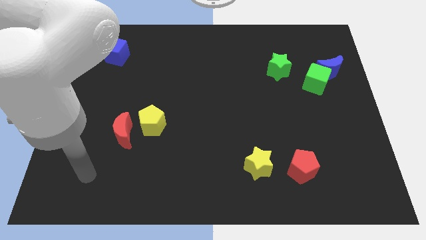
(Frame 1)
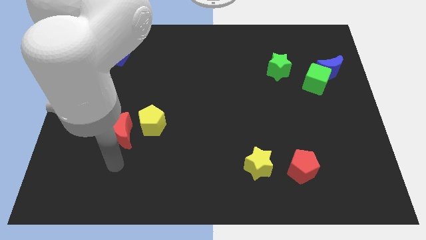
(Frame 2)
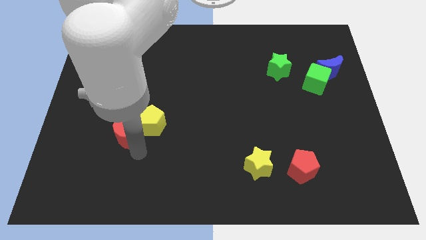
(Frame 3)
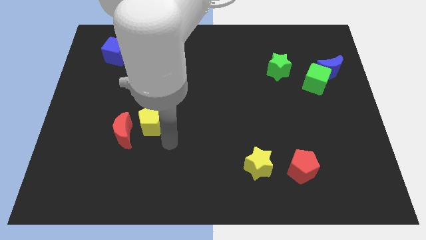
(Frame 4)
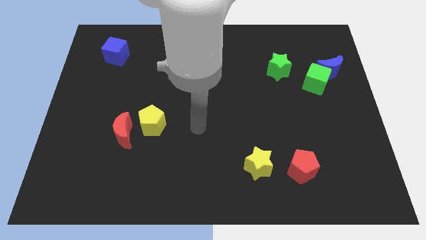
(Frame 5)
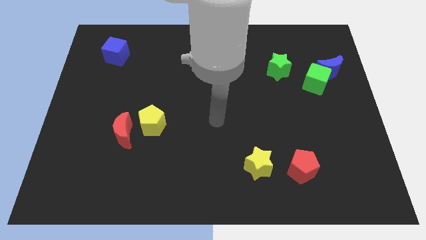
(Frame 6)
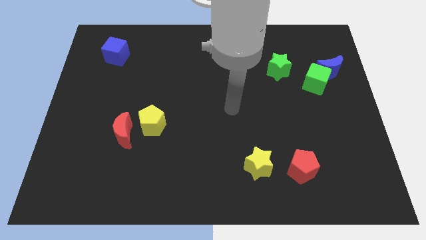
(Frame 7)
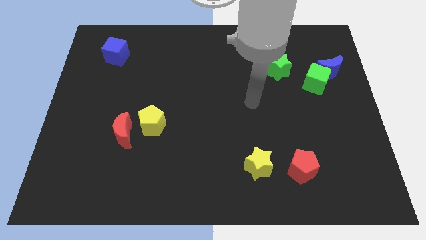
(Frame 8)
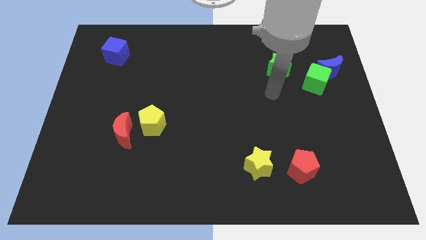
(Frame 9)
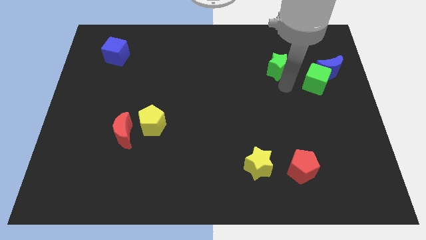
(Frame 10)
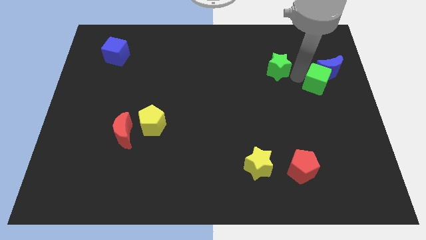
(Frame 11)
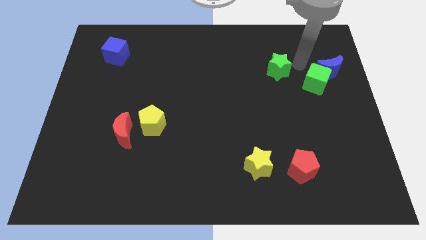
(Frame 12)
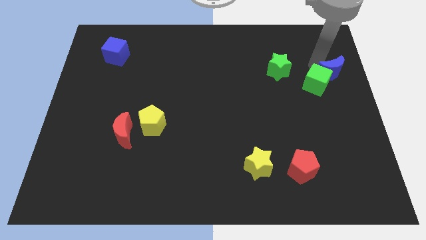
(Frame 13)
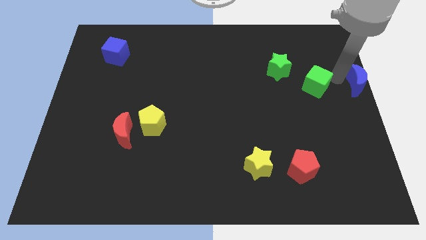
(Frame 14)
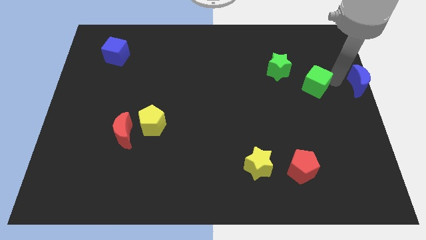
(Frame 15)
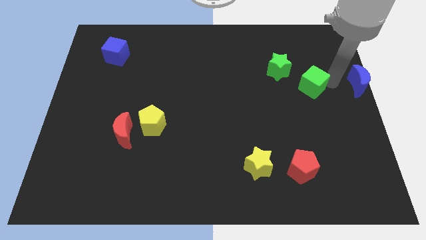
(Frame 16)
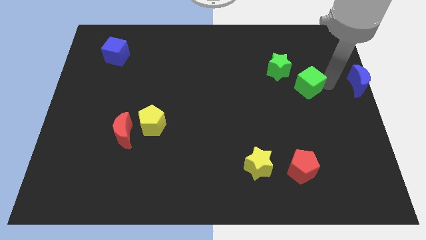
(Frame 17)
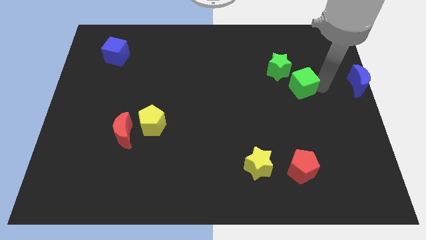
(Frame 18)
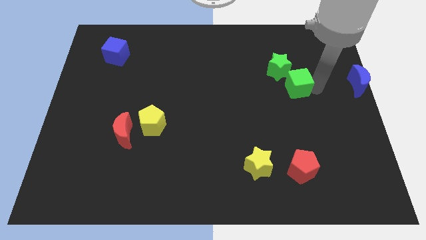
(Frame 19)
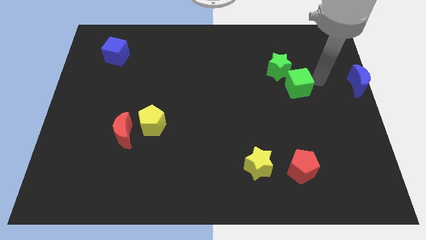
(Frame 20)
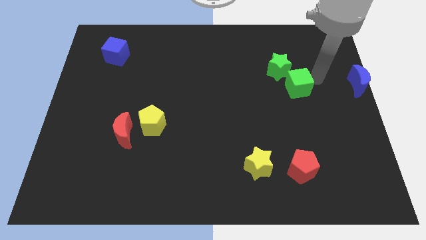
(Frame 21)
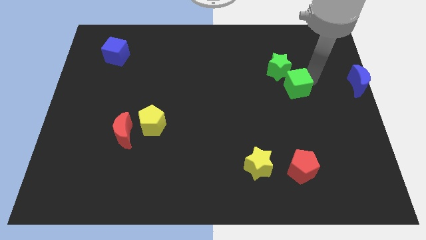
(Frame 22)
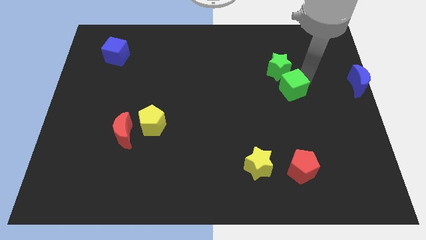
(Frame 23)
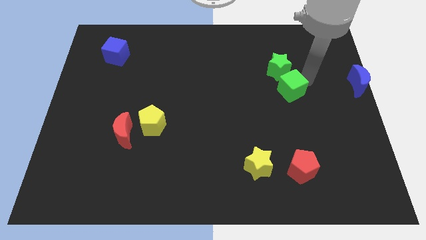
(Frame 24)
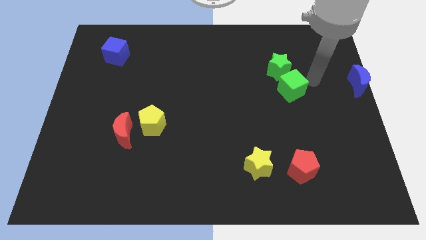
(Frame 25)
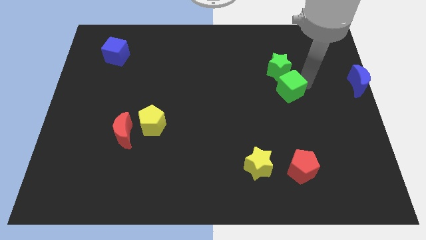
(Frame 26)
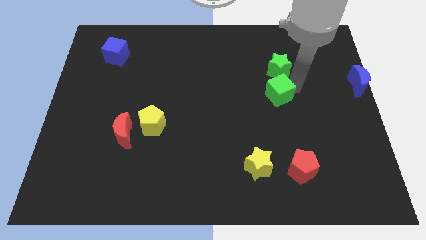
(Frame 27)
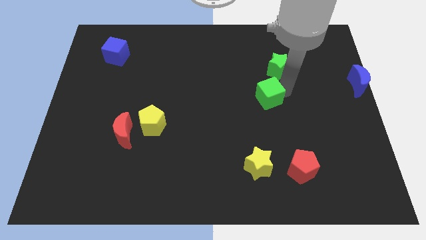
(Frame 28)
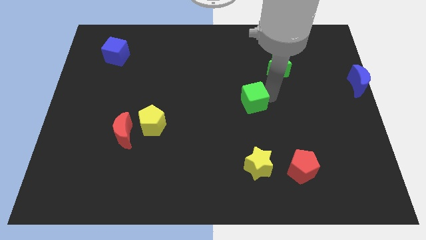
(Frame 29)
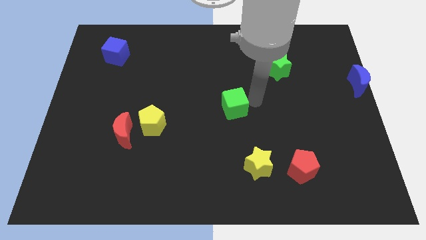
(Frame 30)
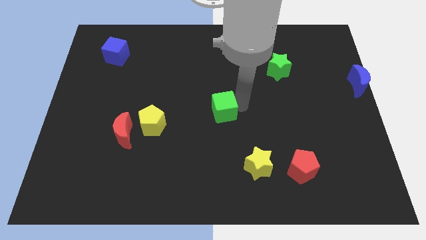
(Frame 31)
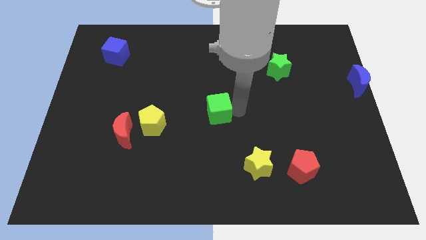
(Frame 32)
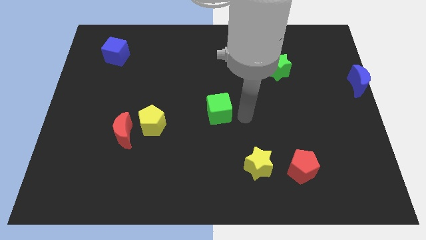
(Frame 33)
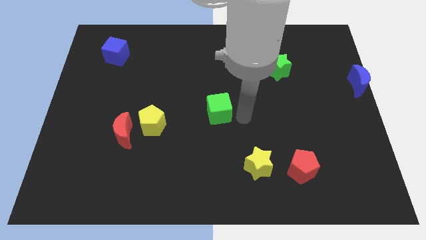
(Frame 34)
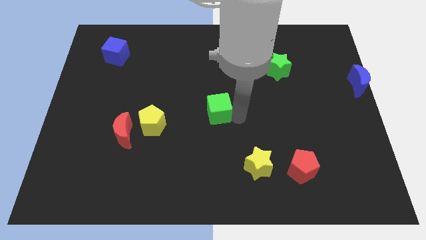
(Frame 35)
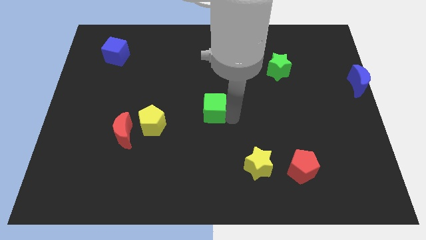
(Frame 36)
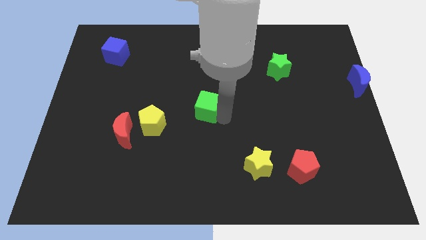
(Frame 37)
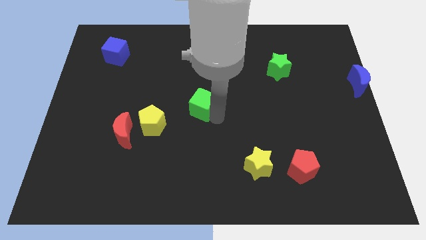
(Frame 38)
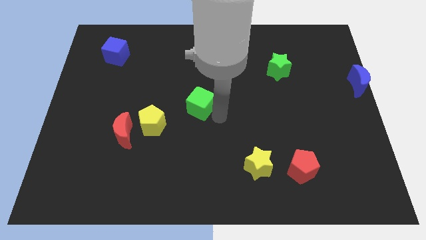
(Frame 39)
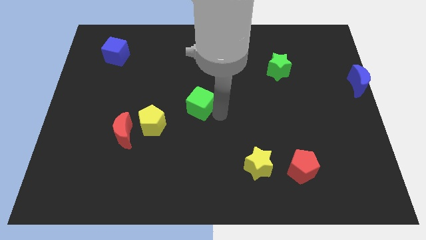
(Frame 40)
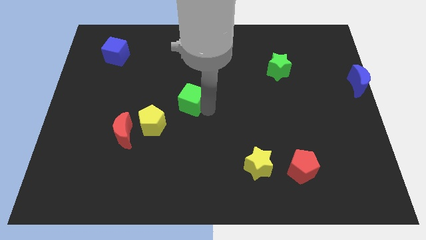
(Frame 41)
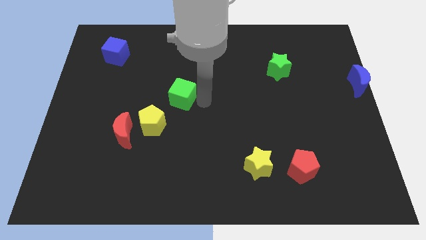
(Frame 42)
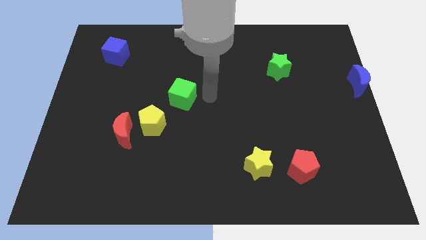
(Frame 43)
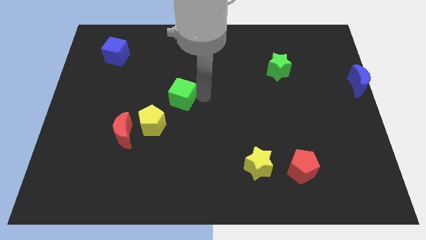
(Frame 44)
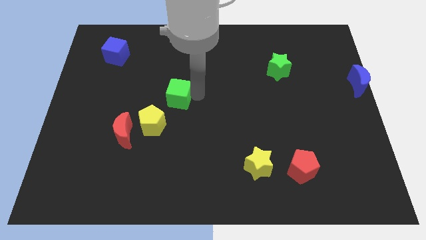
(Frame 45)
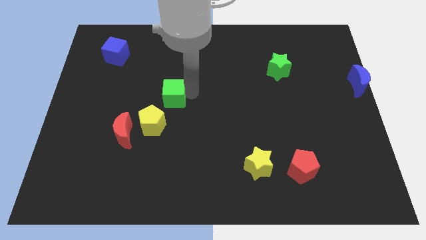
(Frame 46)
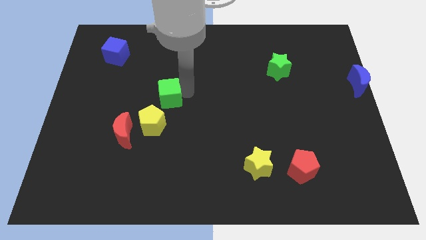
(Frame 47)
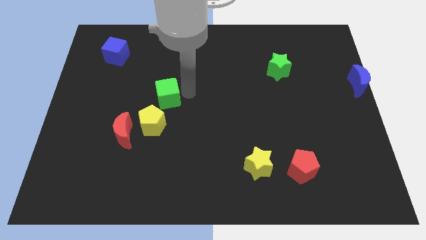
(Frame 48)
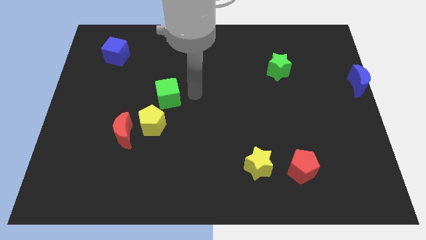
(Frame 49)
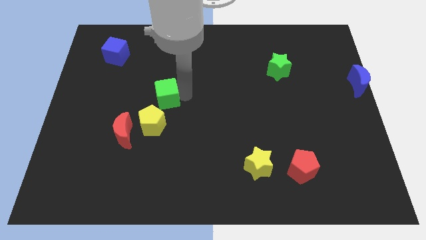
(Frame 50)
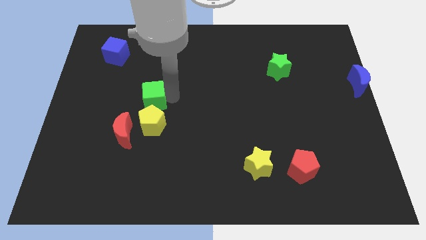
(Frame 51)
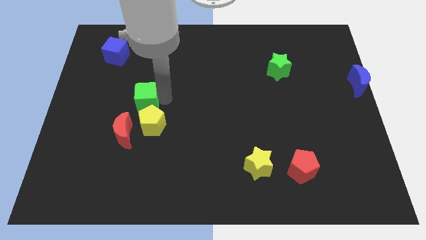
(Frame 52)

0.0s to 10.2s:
slide the green cube above the red moon

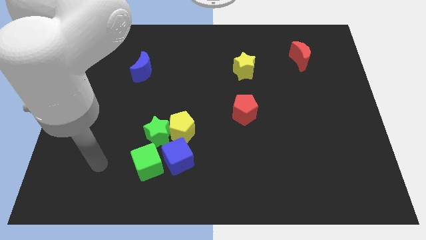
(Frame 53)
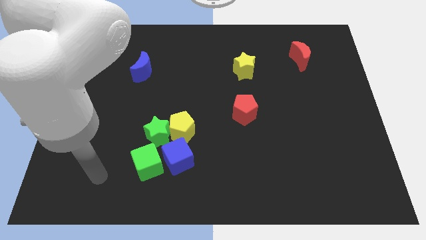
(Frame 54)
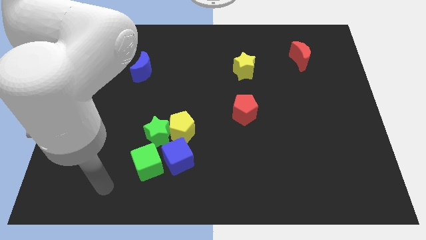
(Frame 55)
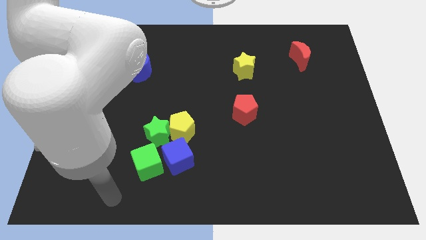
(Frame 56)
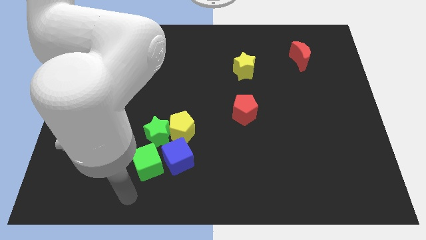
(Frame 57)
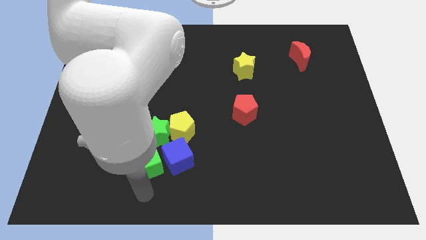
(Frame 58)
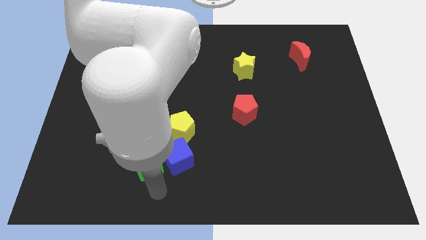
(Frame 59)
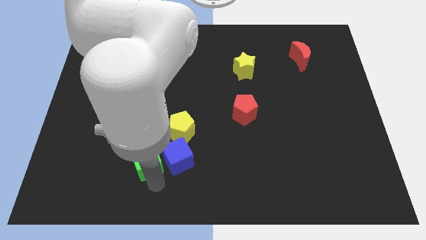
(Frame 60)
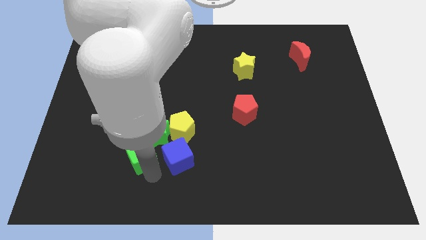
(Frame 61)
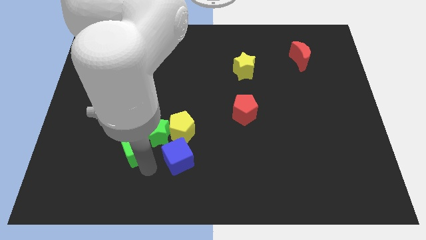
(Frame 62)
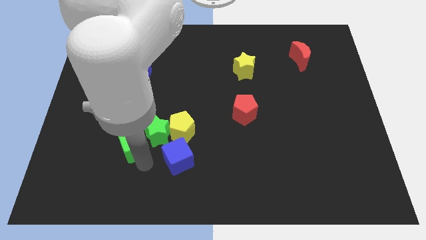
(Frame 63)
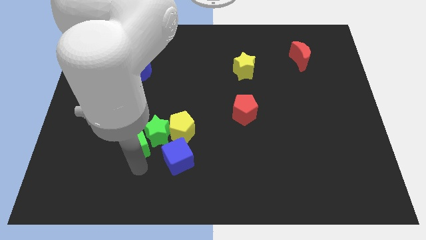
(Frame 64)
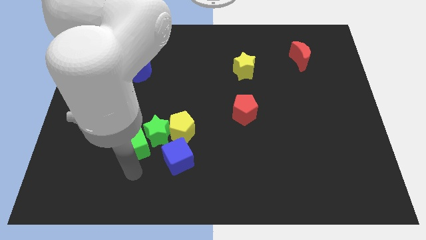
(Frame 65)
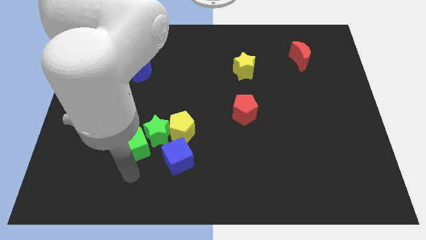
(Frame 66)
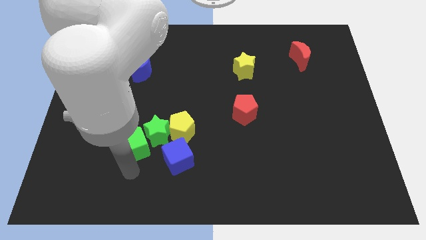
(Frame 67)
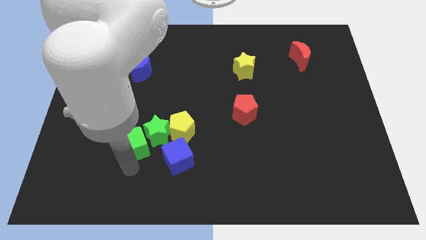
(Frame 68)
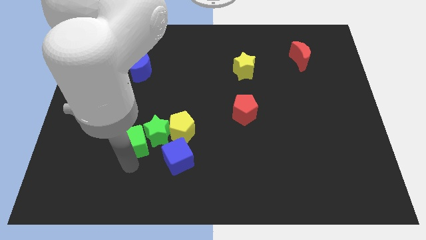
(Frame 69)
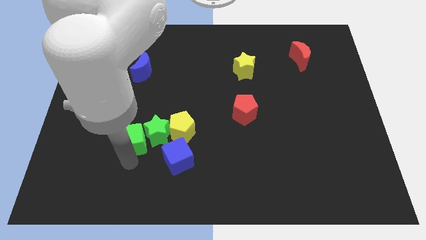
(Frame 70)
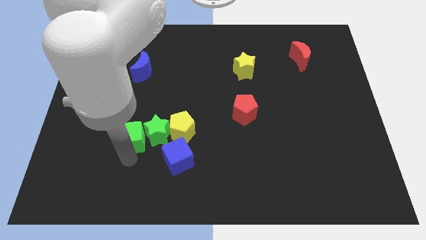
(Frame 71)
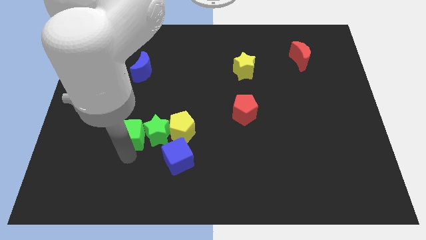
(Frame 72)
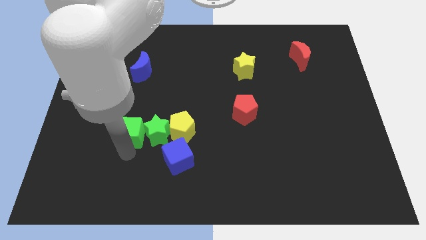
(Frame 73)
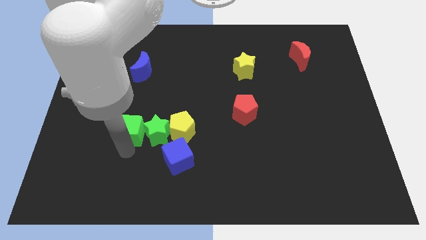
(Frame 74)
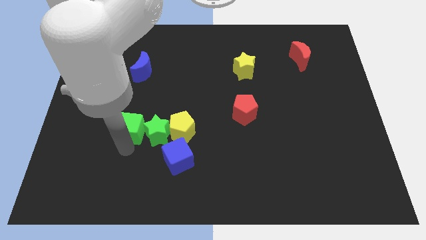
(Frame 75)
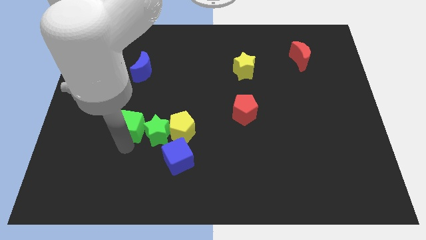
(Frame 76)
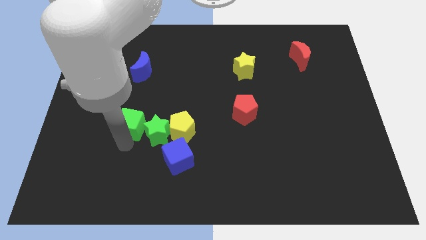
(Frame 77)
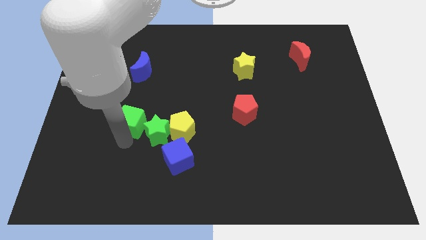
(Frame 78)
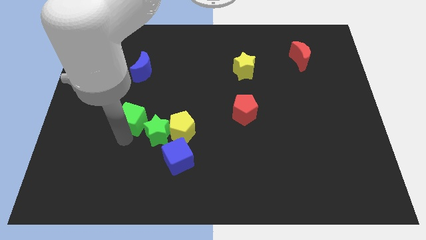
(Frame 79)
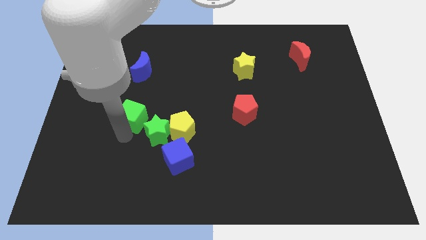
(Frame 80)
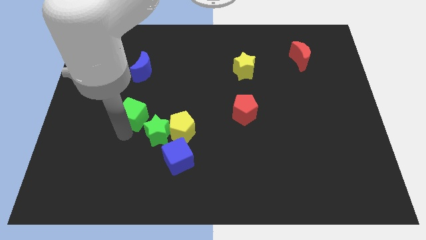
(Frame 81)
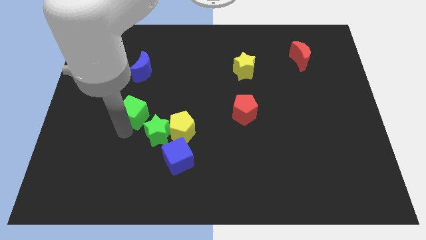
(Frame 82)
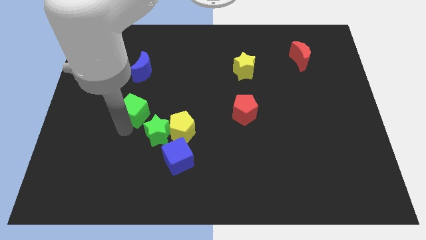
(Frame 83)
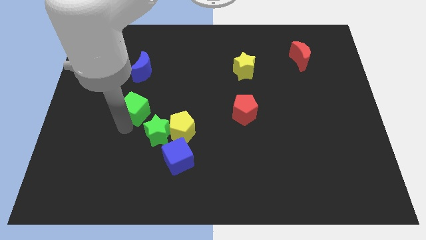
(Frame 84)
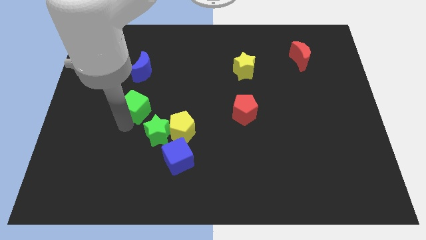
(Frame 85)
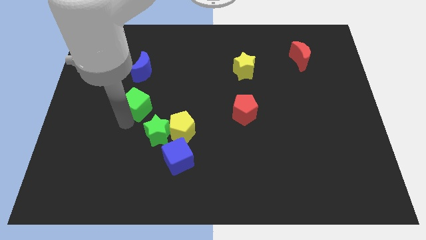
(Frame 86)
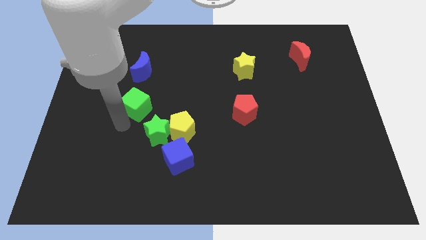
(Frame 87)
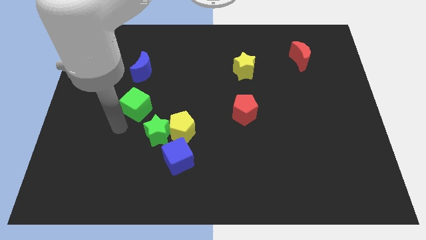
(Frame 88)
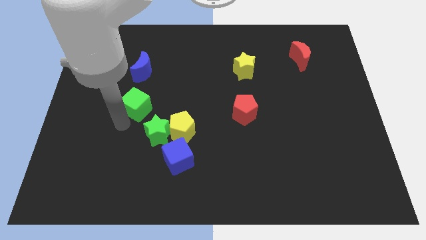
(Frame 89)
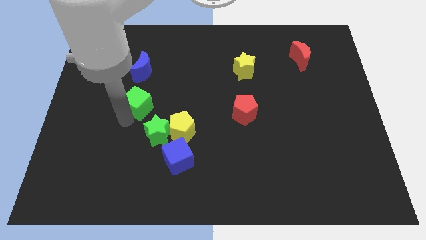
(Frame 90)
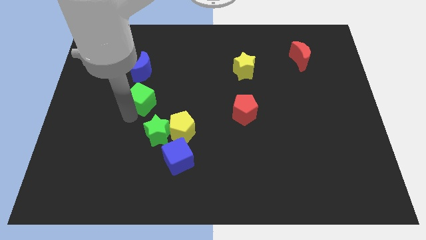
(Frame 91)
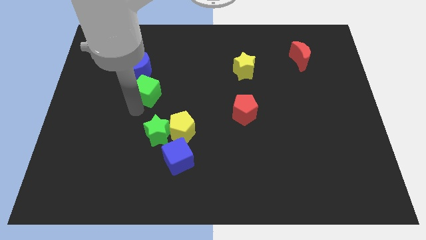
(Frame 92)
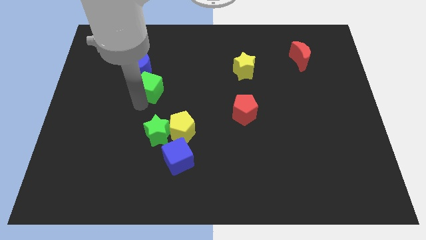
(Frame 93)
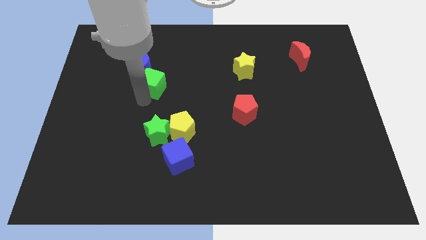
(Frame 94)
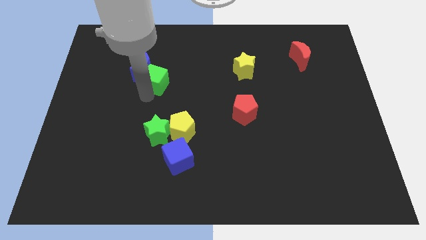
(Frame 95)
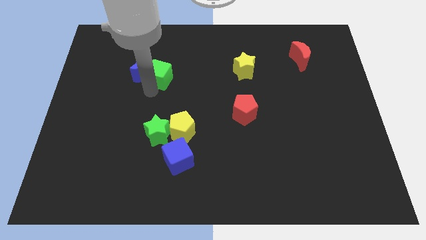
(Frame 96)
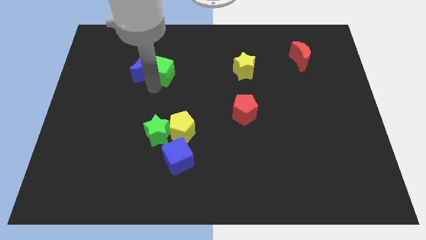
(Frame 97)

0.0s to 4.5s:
push the green cube to the top right of the blue moon
